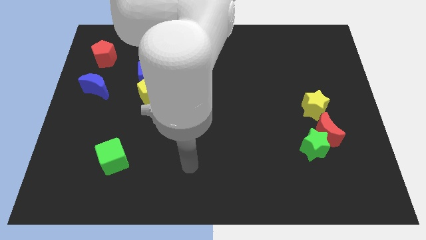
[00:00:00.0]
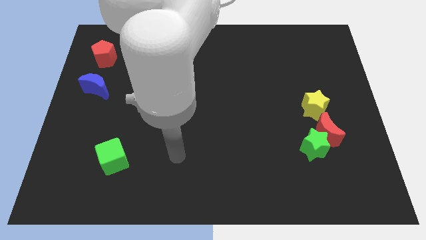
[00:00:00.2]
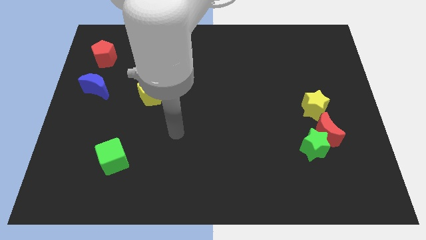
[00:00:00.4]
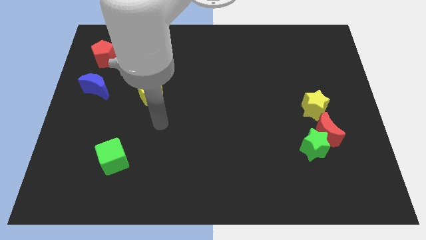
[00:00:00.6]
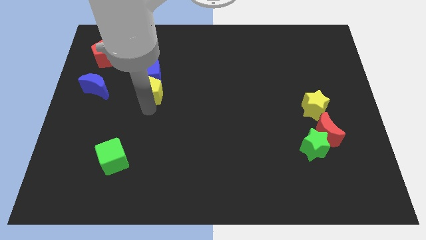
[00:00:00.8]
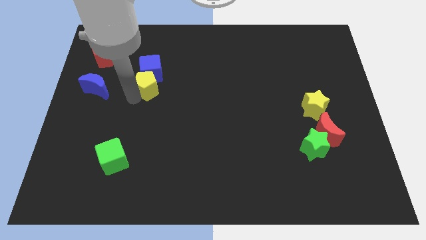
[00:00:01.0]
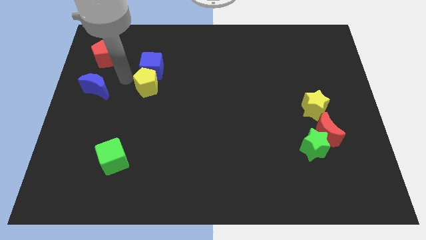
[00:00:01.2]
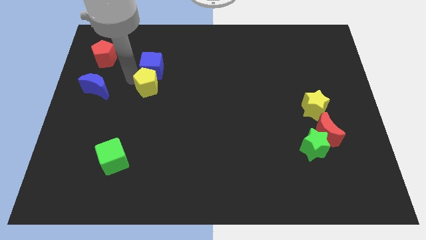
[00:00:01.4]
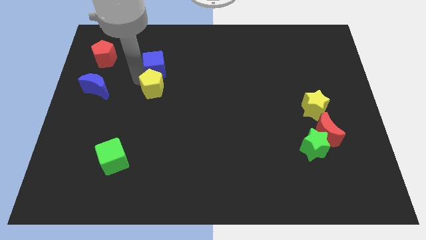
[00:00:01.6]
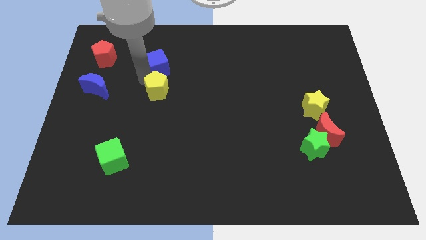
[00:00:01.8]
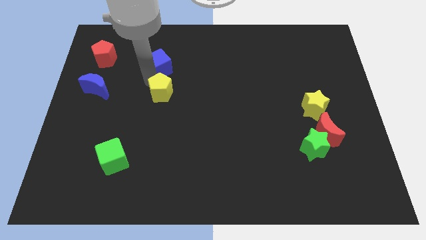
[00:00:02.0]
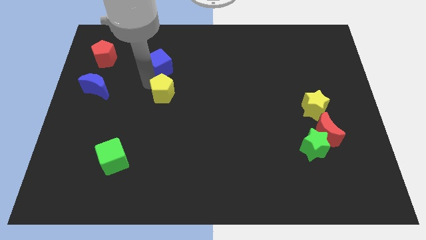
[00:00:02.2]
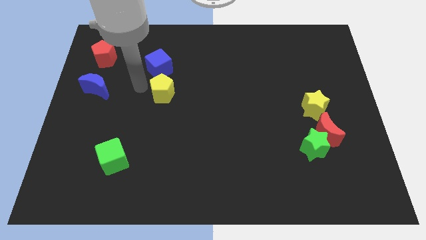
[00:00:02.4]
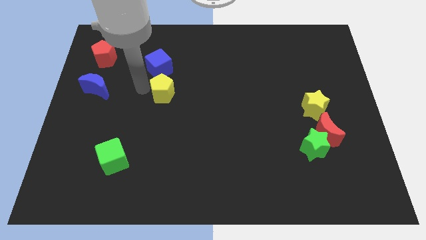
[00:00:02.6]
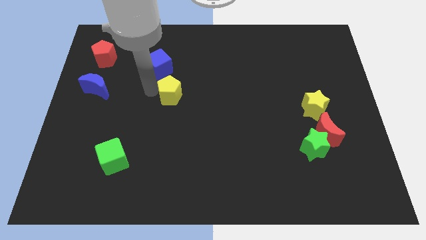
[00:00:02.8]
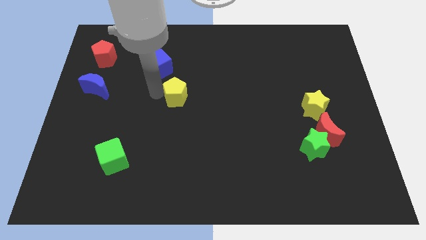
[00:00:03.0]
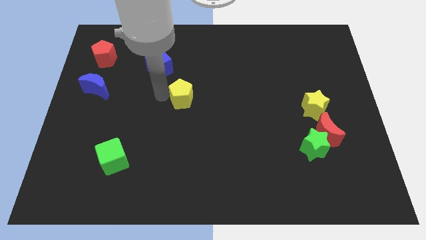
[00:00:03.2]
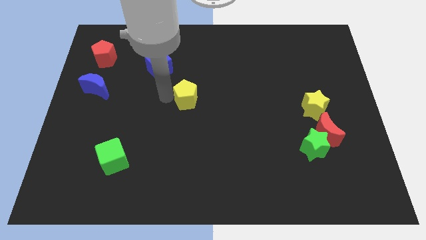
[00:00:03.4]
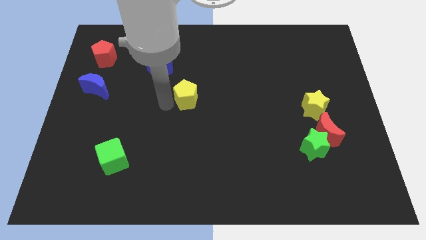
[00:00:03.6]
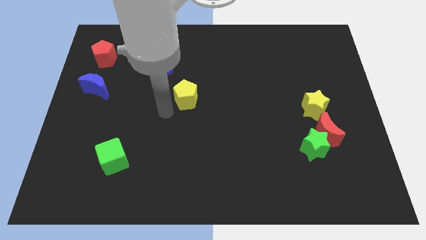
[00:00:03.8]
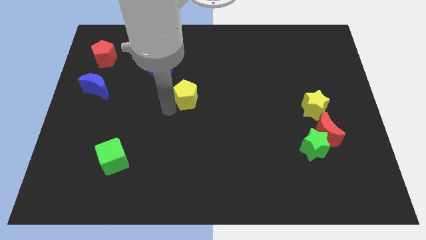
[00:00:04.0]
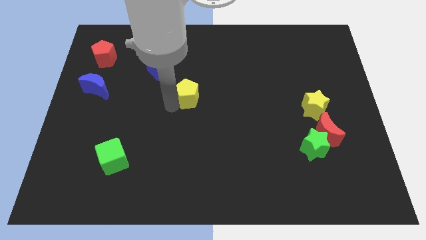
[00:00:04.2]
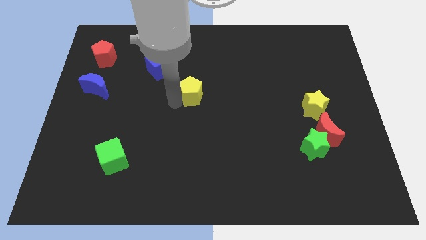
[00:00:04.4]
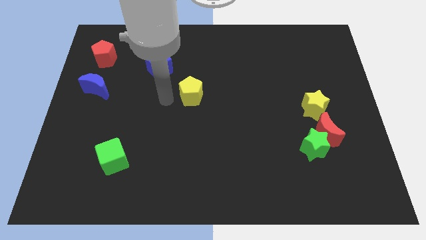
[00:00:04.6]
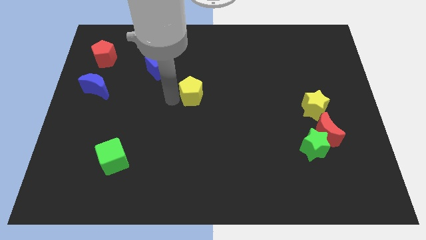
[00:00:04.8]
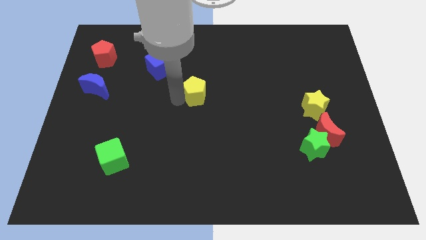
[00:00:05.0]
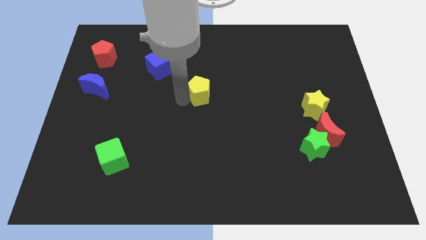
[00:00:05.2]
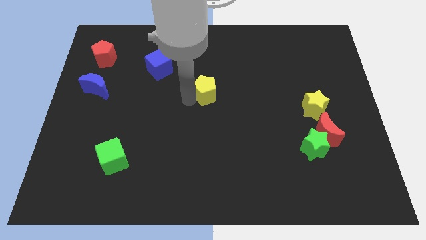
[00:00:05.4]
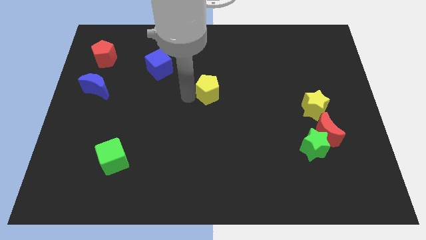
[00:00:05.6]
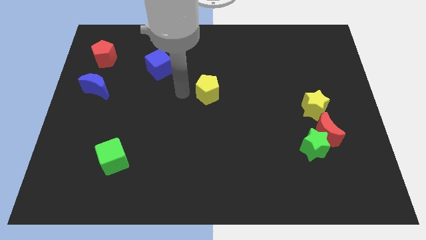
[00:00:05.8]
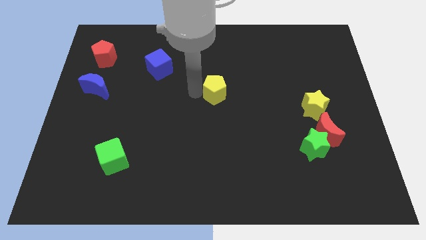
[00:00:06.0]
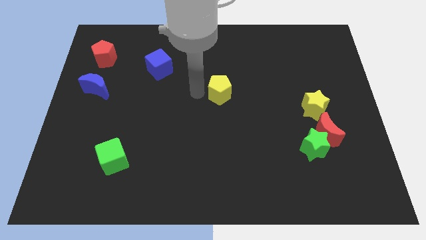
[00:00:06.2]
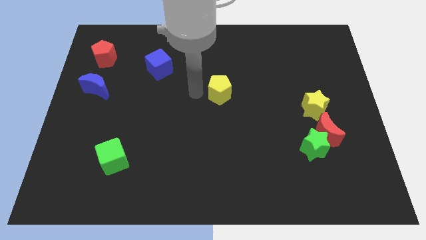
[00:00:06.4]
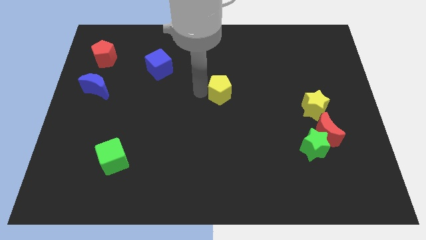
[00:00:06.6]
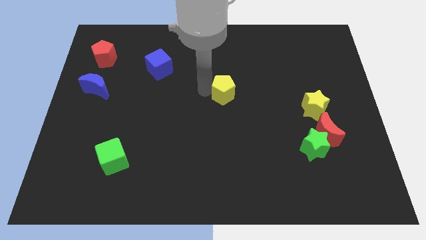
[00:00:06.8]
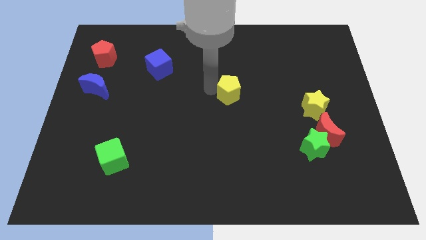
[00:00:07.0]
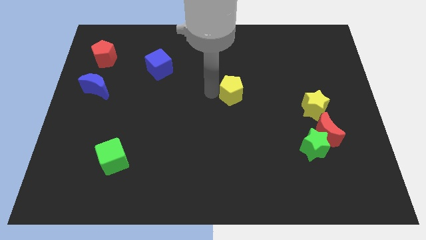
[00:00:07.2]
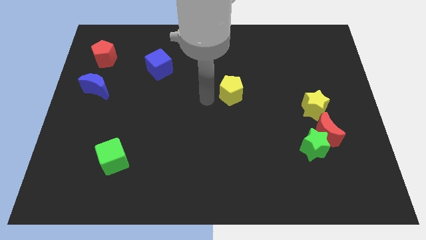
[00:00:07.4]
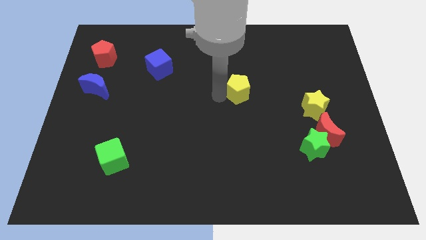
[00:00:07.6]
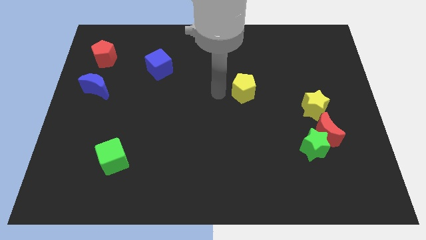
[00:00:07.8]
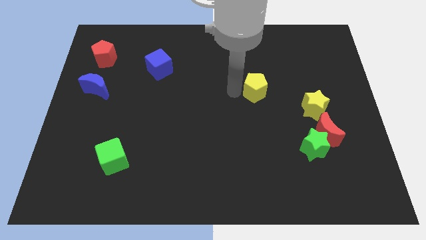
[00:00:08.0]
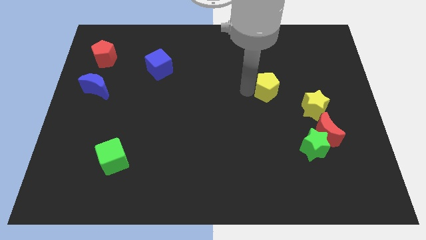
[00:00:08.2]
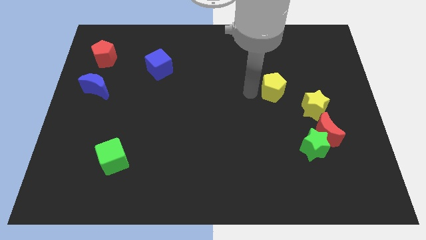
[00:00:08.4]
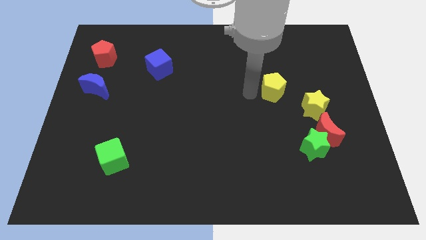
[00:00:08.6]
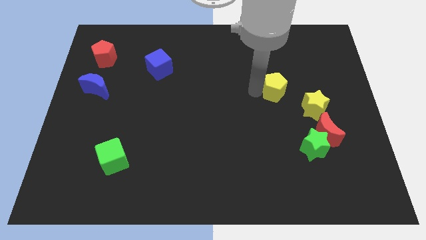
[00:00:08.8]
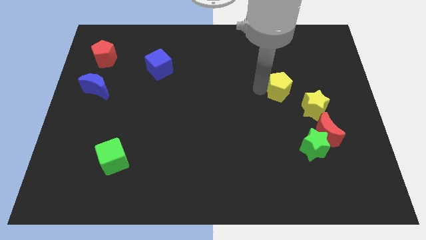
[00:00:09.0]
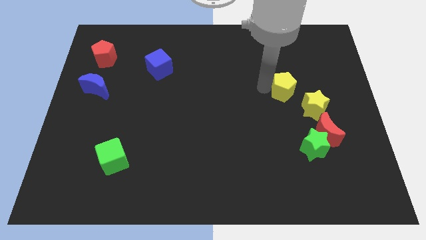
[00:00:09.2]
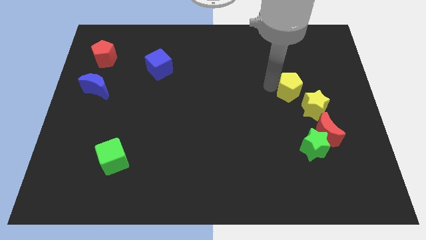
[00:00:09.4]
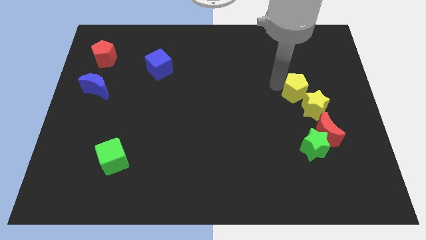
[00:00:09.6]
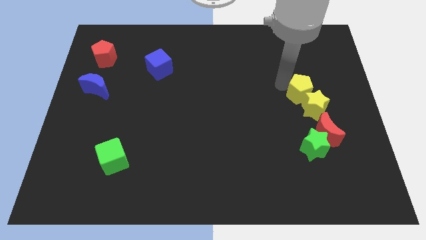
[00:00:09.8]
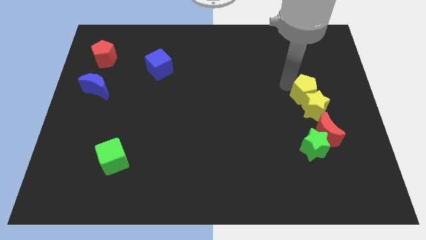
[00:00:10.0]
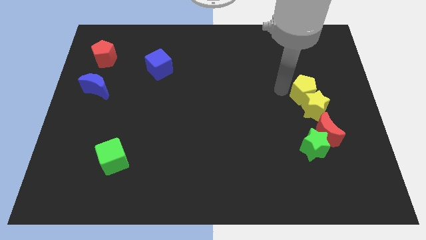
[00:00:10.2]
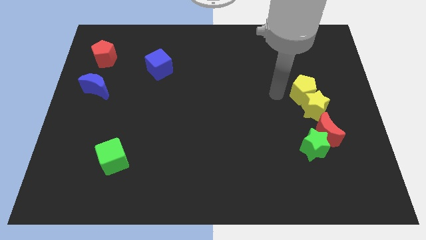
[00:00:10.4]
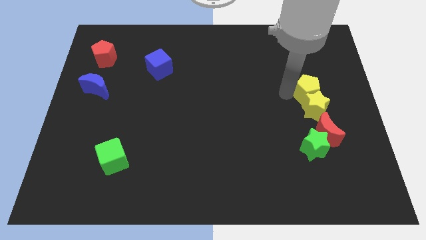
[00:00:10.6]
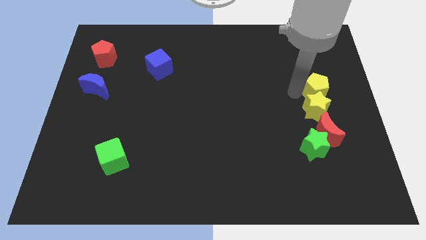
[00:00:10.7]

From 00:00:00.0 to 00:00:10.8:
push the yellow pentagon to the right side of the board

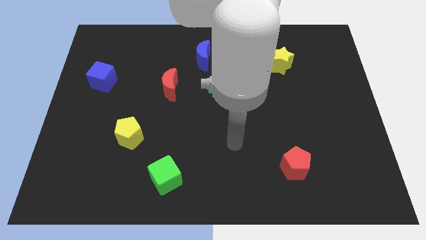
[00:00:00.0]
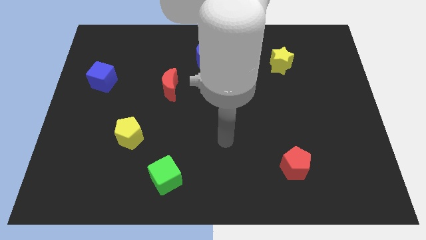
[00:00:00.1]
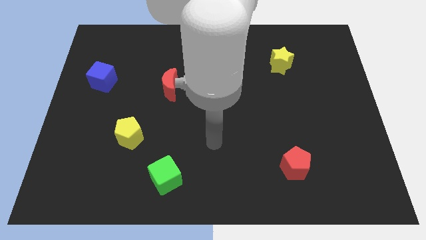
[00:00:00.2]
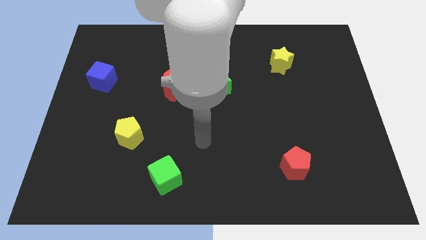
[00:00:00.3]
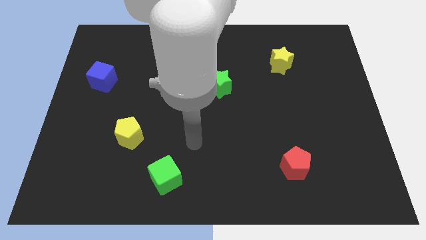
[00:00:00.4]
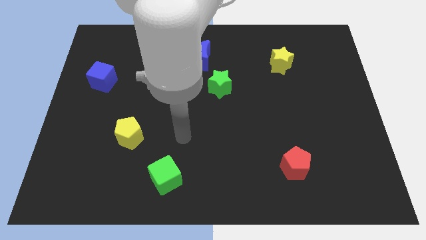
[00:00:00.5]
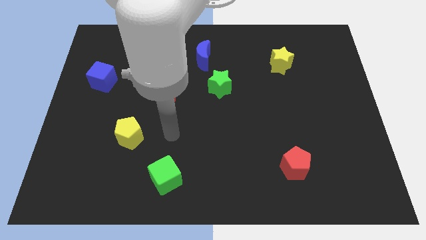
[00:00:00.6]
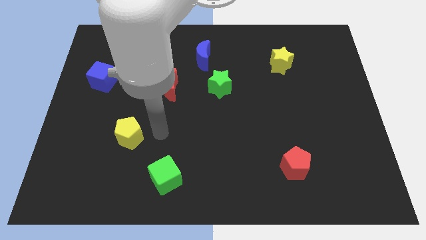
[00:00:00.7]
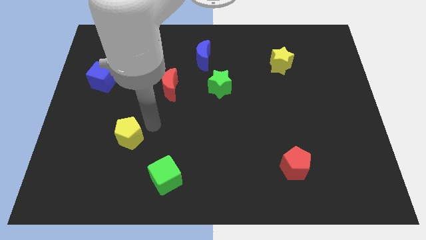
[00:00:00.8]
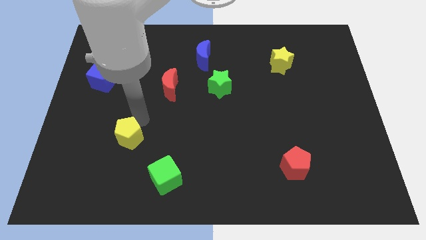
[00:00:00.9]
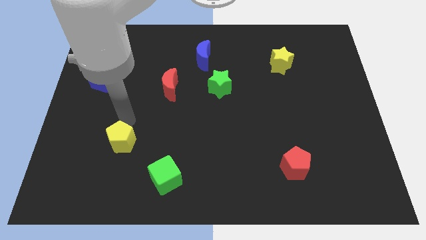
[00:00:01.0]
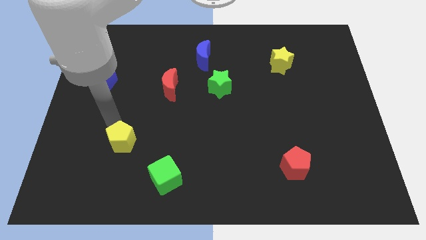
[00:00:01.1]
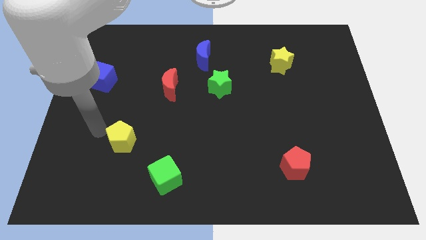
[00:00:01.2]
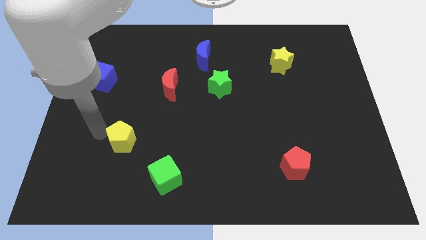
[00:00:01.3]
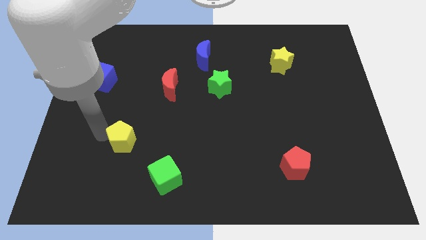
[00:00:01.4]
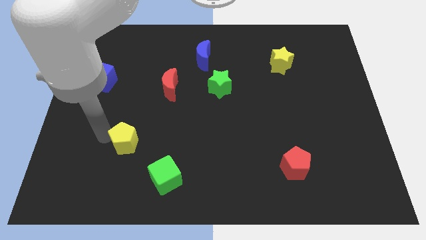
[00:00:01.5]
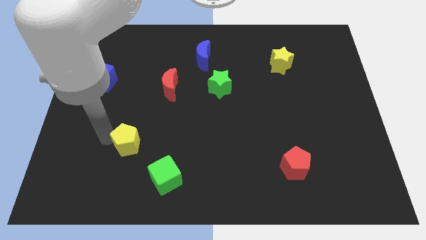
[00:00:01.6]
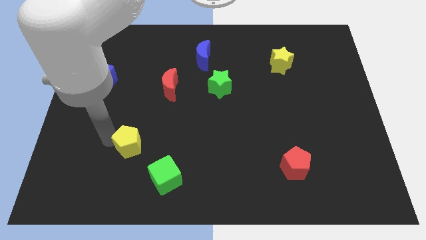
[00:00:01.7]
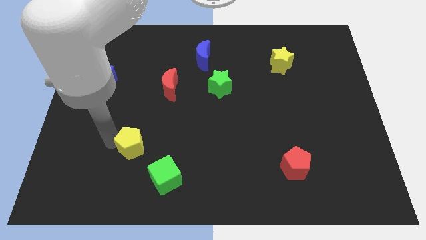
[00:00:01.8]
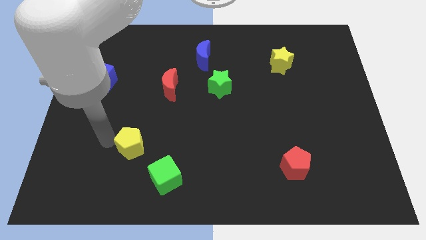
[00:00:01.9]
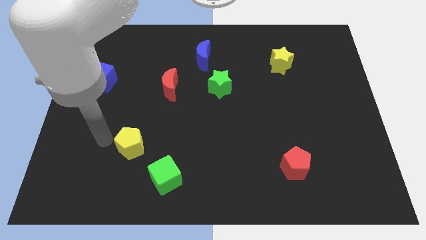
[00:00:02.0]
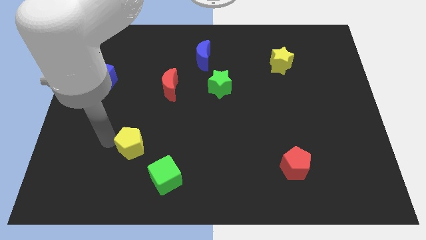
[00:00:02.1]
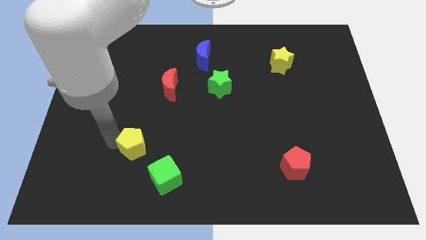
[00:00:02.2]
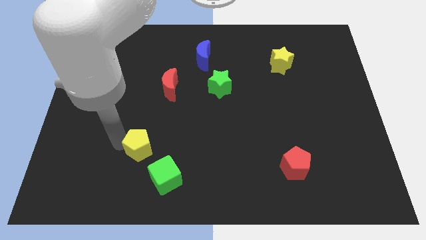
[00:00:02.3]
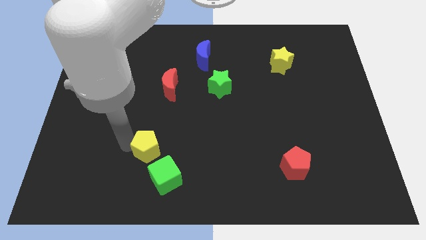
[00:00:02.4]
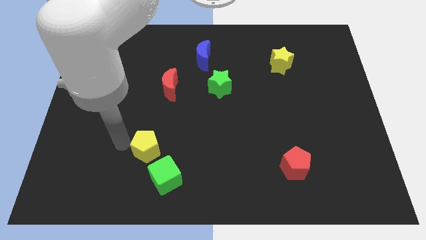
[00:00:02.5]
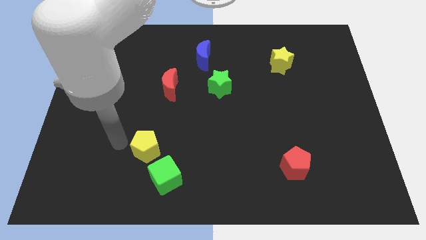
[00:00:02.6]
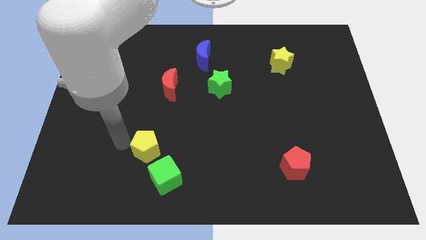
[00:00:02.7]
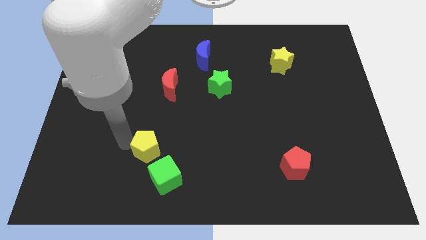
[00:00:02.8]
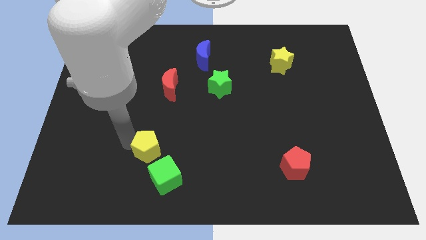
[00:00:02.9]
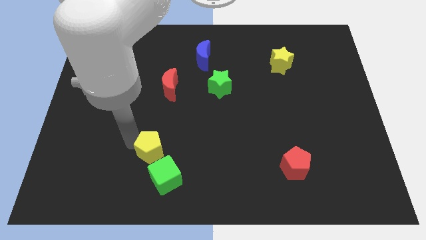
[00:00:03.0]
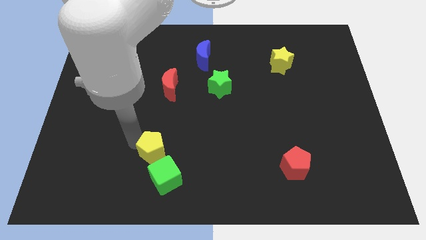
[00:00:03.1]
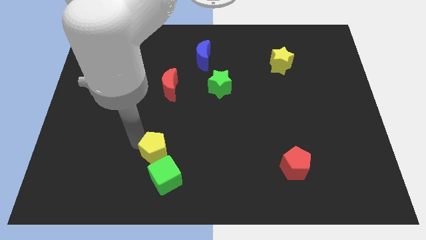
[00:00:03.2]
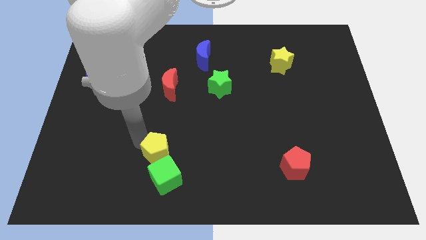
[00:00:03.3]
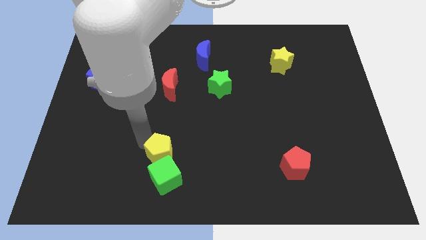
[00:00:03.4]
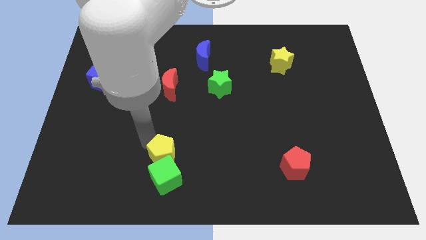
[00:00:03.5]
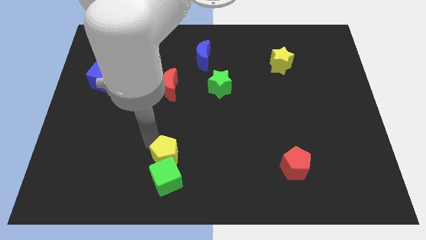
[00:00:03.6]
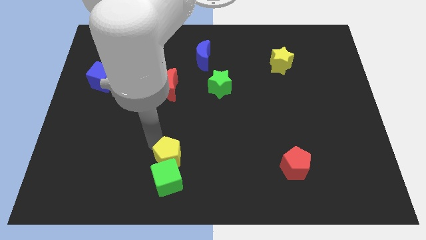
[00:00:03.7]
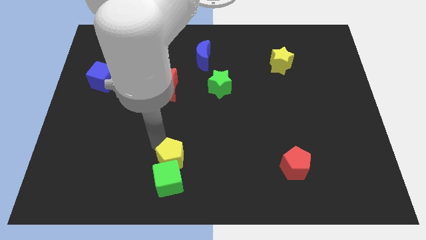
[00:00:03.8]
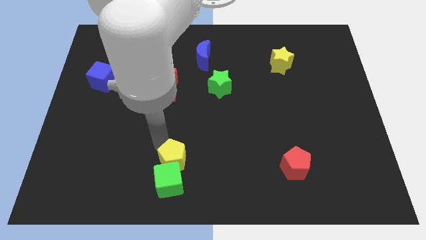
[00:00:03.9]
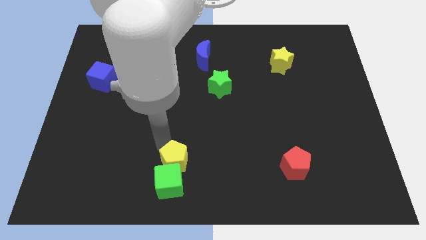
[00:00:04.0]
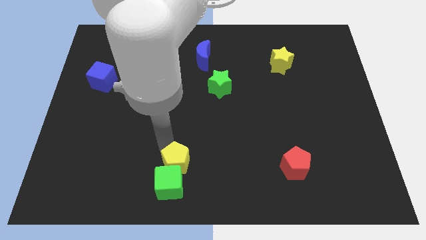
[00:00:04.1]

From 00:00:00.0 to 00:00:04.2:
slide the yellow pentagon to the bottom side
